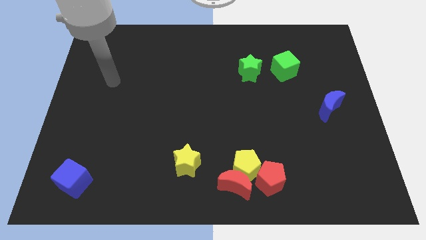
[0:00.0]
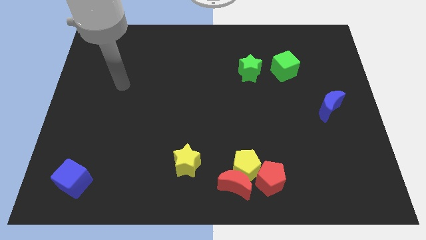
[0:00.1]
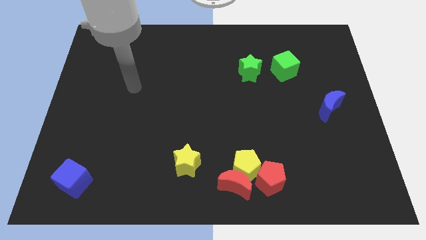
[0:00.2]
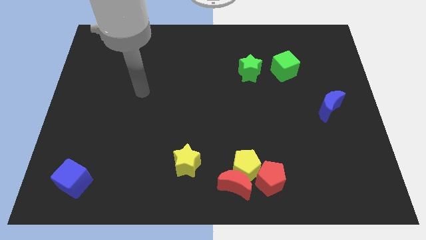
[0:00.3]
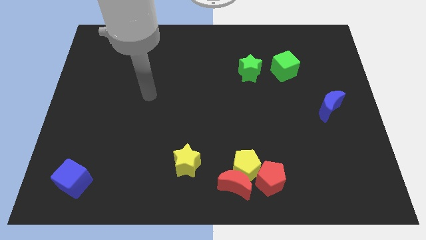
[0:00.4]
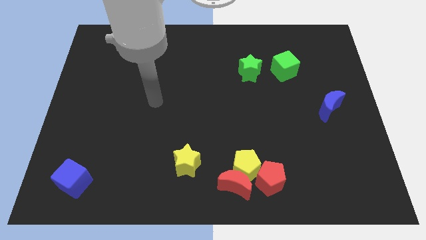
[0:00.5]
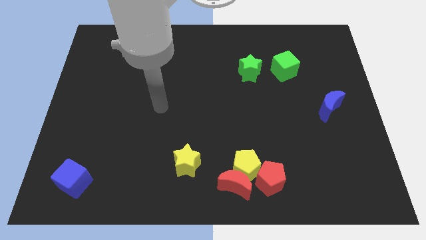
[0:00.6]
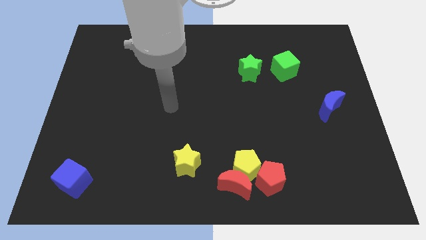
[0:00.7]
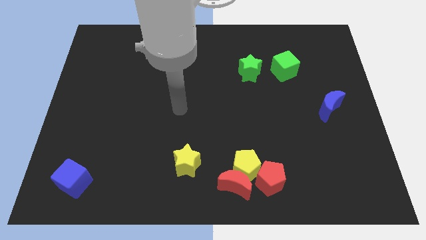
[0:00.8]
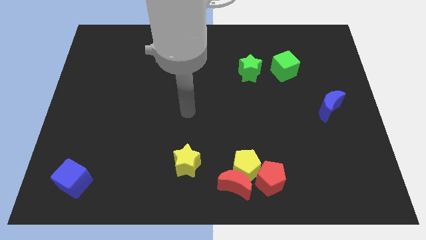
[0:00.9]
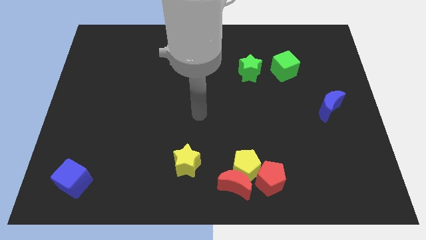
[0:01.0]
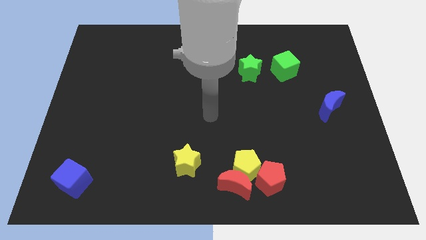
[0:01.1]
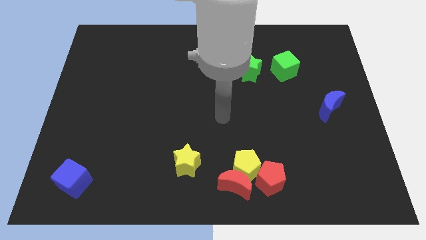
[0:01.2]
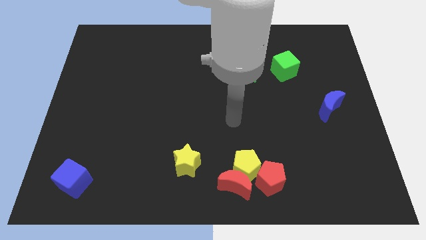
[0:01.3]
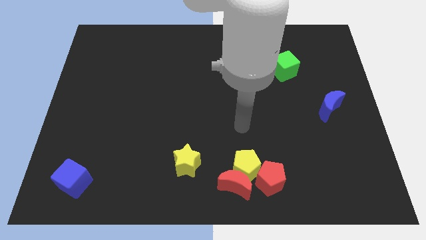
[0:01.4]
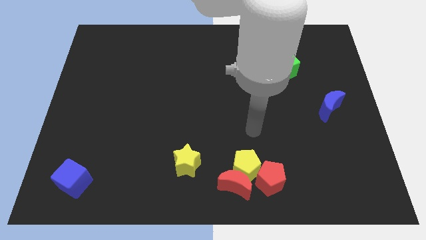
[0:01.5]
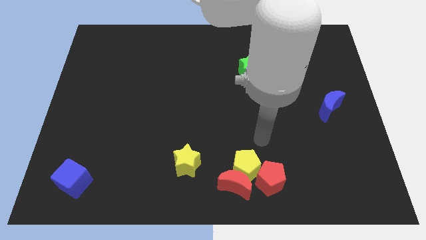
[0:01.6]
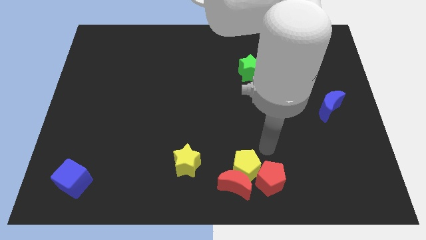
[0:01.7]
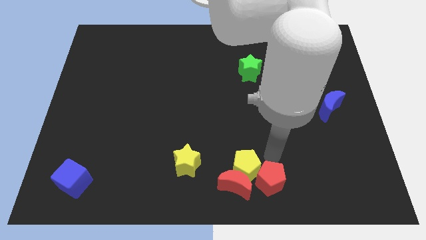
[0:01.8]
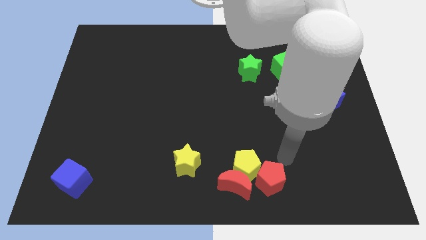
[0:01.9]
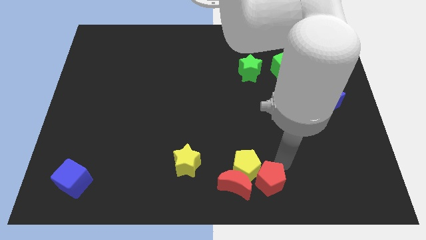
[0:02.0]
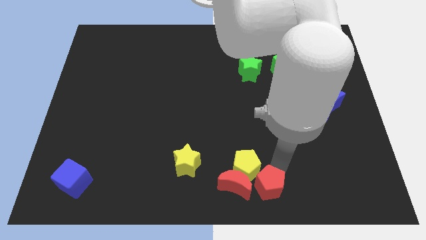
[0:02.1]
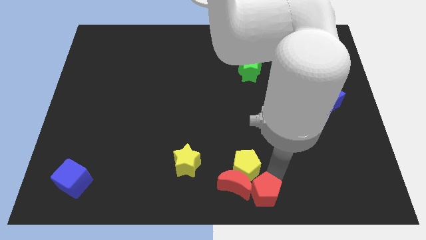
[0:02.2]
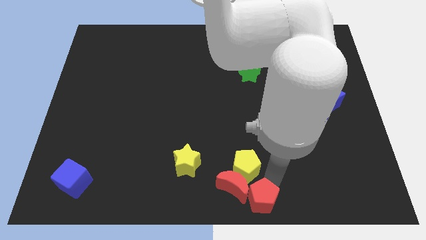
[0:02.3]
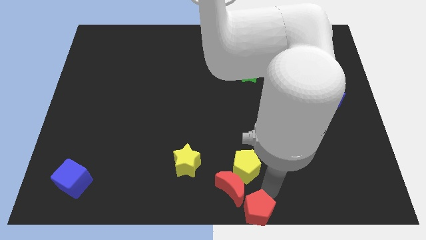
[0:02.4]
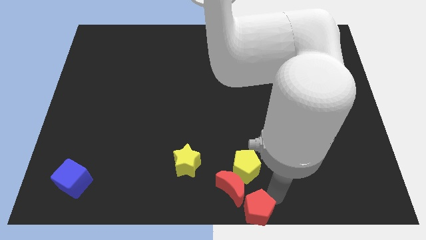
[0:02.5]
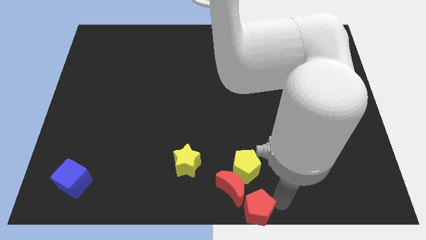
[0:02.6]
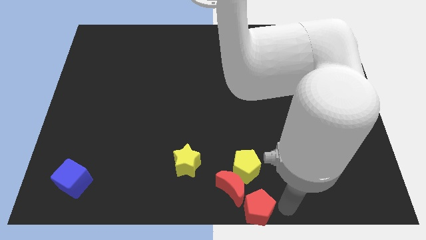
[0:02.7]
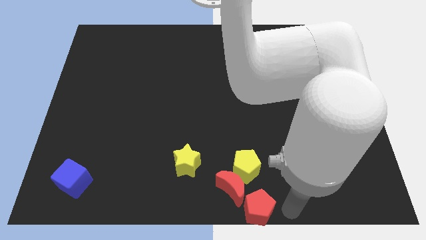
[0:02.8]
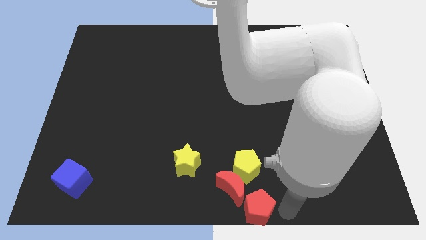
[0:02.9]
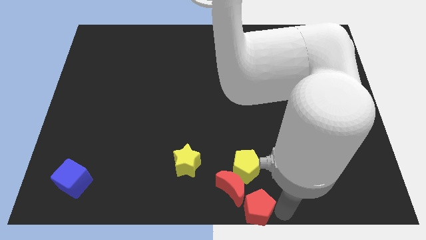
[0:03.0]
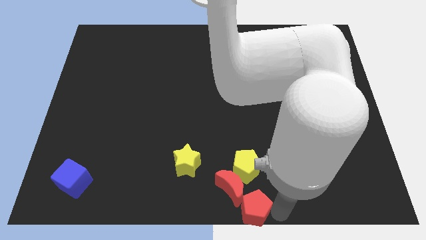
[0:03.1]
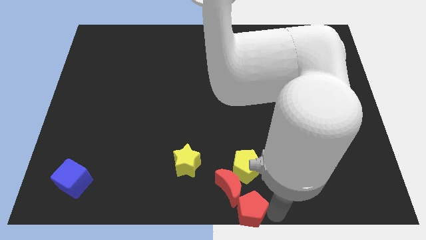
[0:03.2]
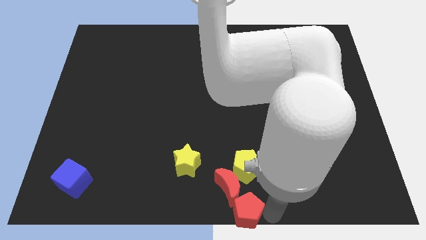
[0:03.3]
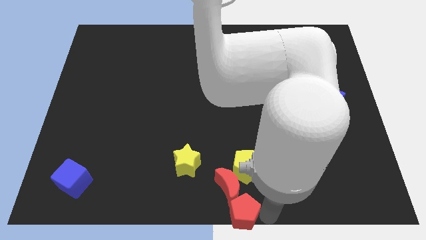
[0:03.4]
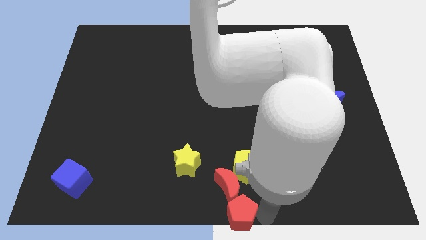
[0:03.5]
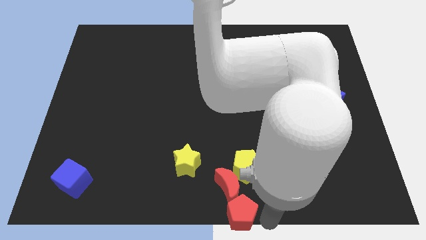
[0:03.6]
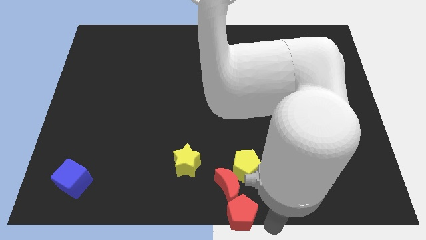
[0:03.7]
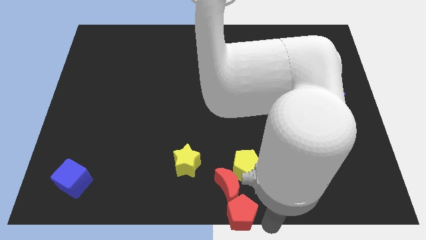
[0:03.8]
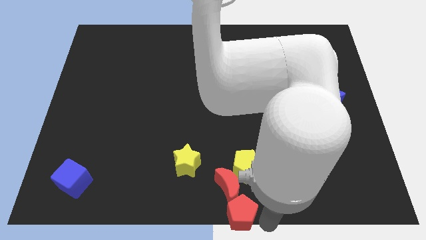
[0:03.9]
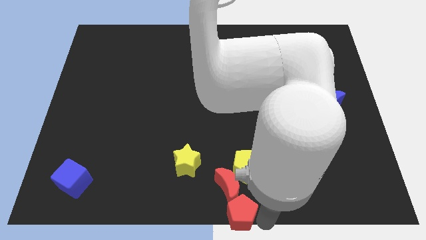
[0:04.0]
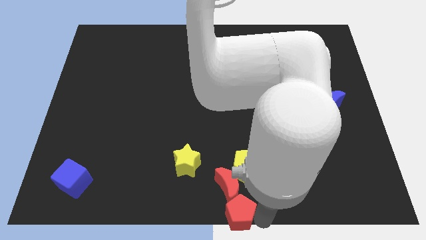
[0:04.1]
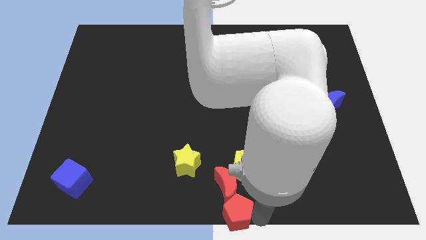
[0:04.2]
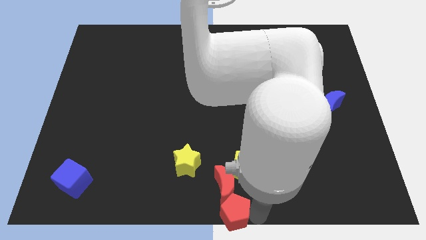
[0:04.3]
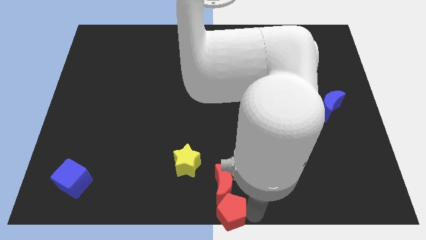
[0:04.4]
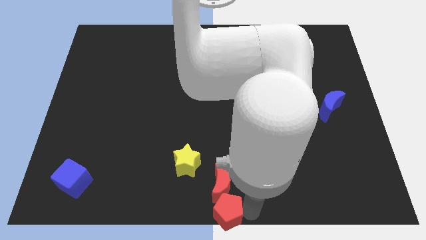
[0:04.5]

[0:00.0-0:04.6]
move the red pentagon somewhat left

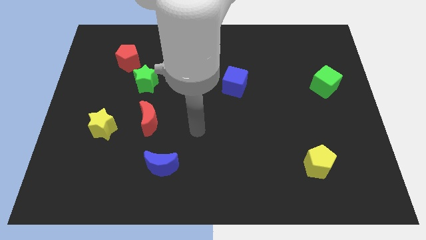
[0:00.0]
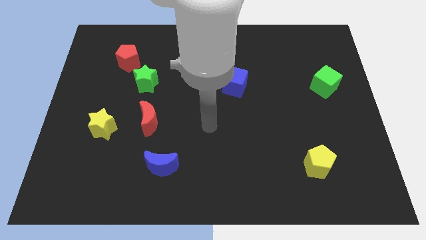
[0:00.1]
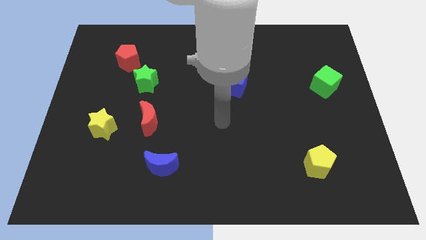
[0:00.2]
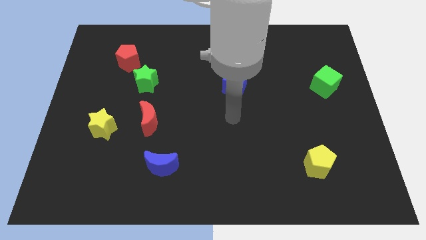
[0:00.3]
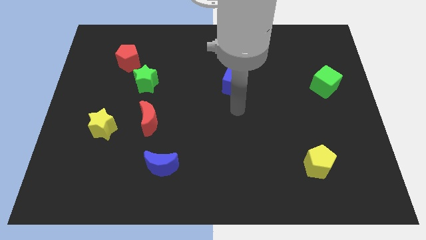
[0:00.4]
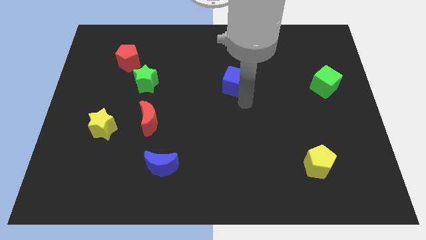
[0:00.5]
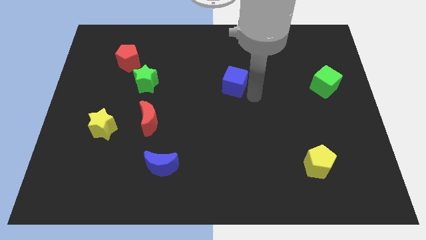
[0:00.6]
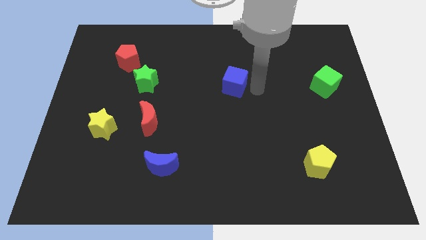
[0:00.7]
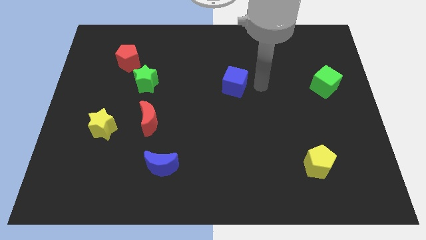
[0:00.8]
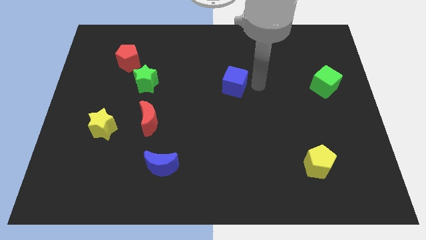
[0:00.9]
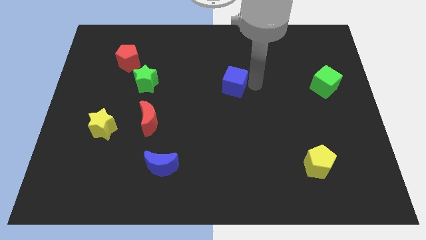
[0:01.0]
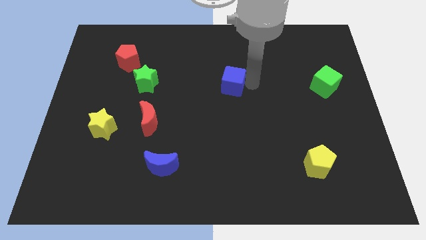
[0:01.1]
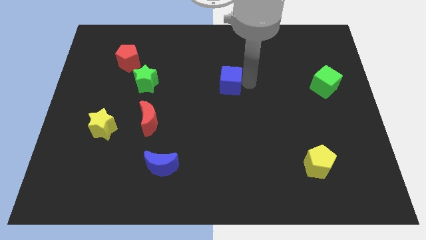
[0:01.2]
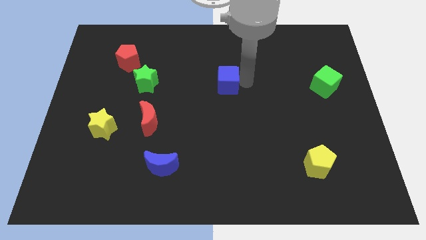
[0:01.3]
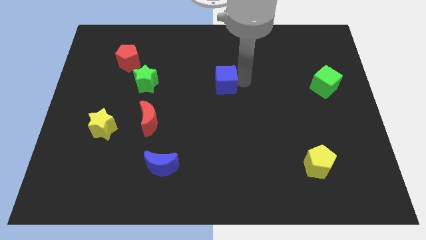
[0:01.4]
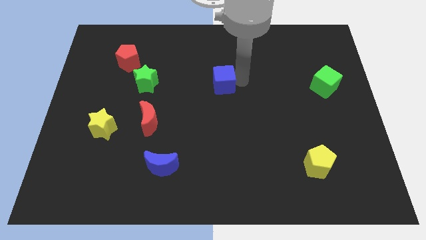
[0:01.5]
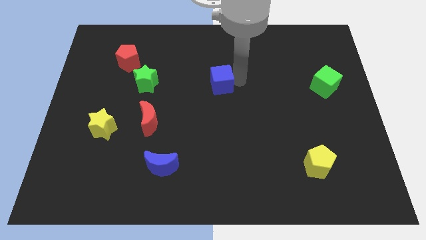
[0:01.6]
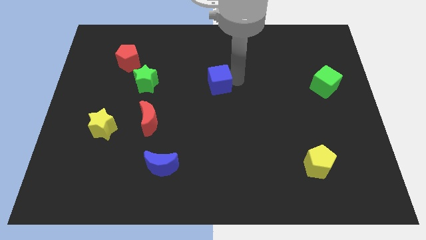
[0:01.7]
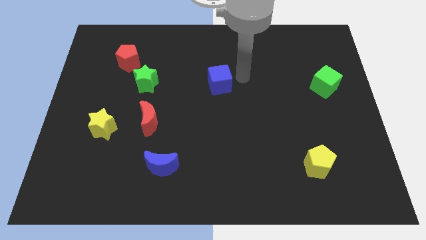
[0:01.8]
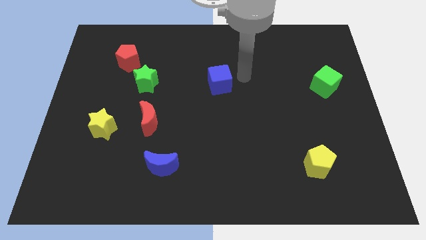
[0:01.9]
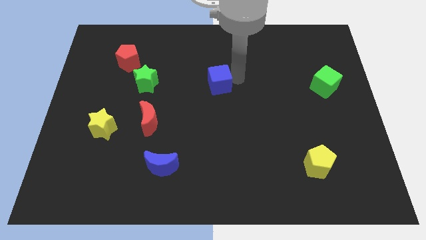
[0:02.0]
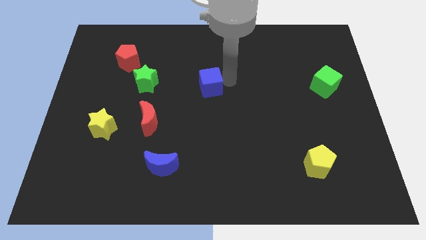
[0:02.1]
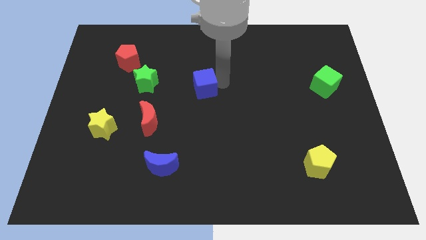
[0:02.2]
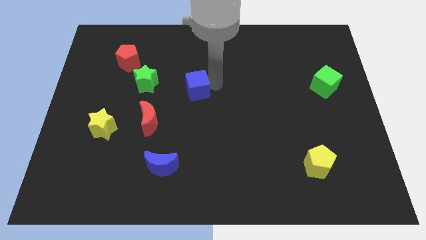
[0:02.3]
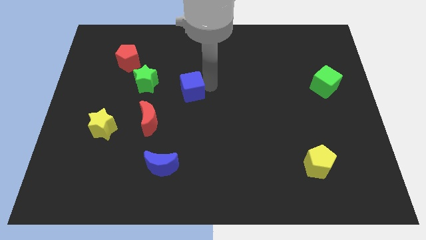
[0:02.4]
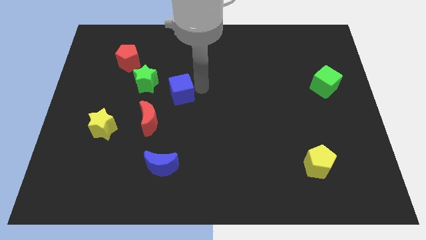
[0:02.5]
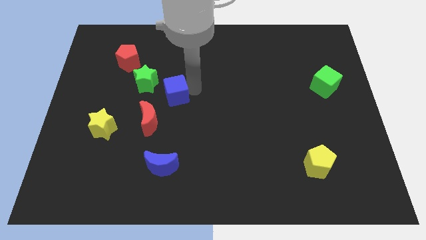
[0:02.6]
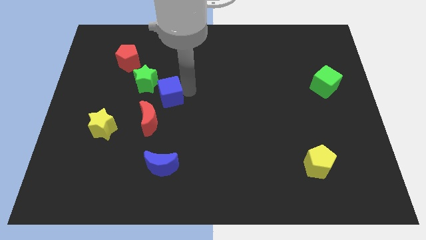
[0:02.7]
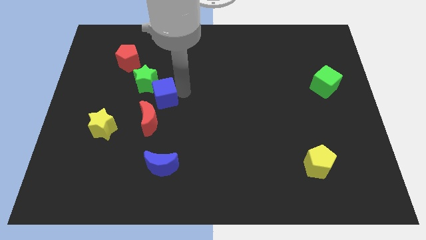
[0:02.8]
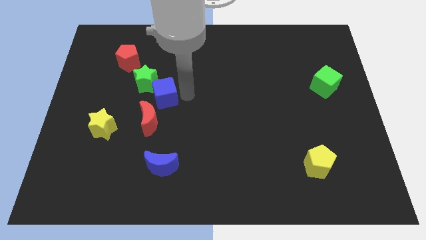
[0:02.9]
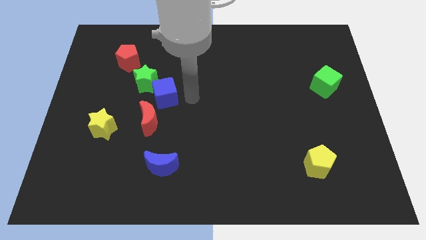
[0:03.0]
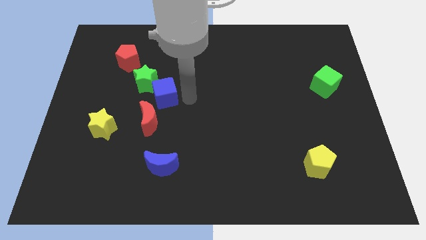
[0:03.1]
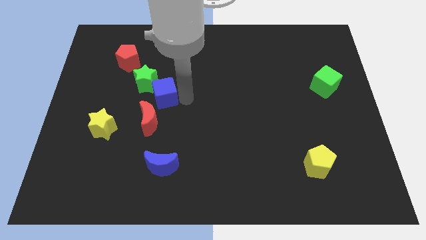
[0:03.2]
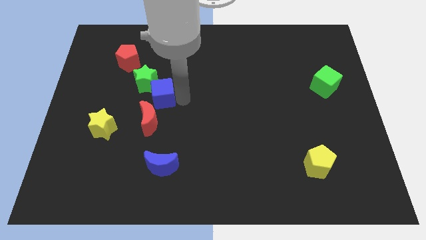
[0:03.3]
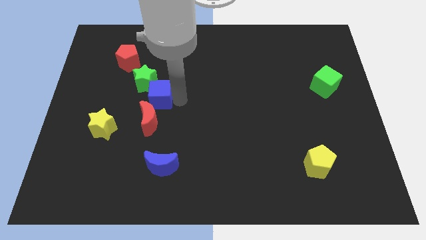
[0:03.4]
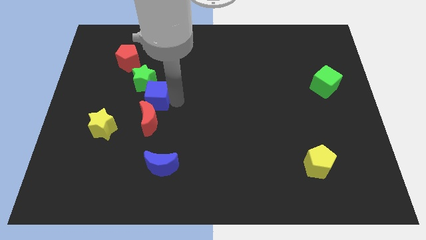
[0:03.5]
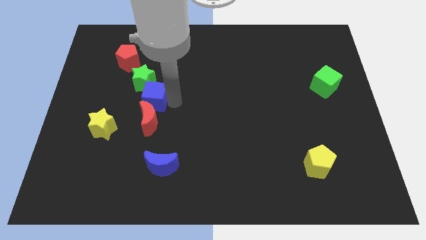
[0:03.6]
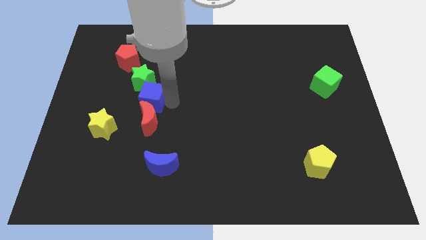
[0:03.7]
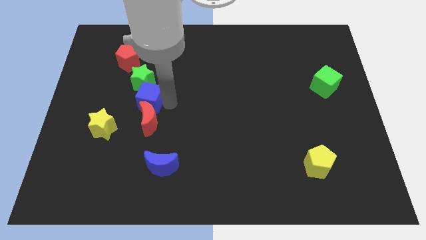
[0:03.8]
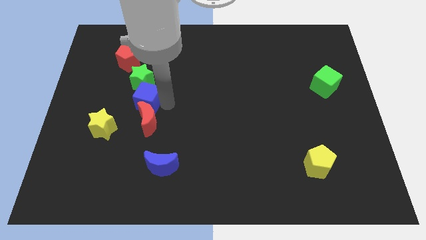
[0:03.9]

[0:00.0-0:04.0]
slide the blue cube to the left
